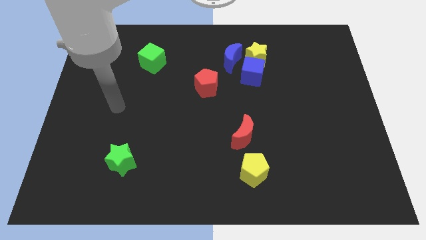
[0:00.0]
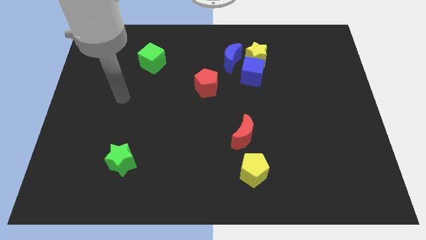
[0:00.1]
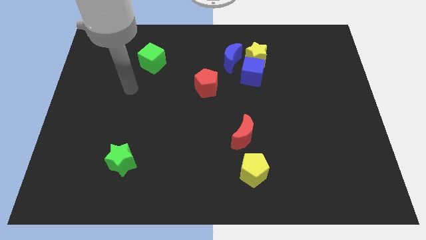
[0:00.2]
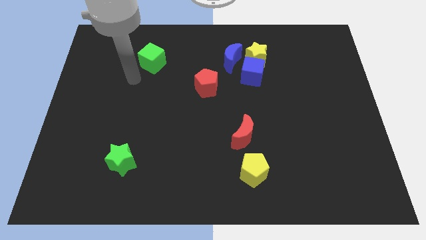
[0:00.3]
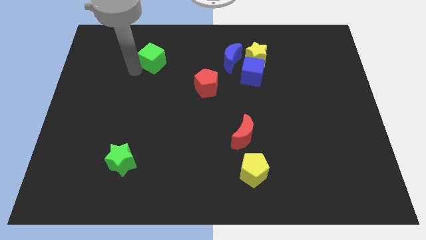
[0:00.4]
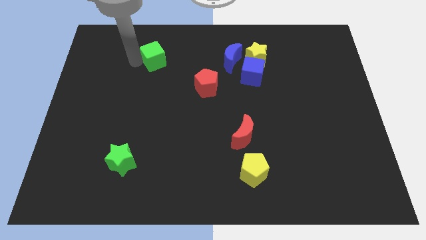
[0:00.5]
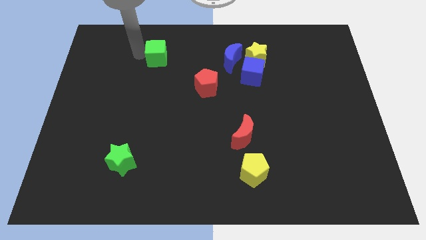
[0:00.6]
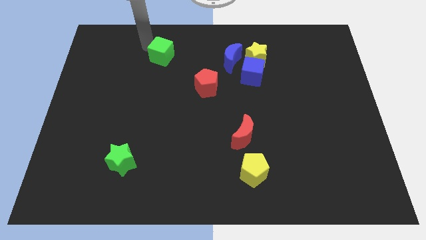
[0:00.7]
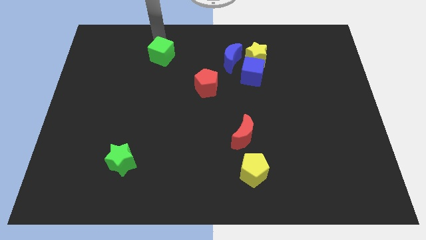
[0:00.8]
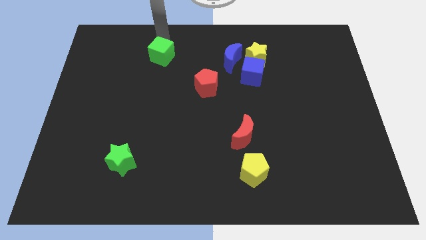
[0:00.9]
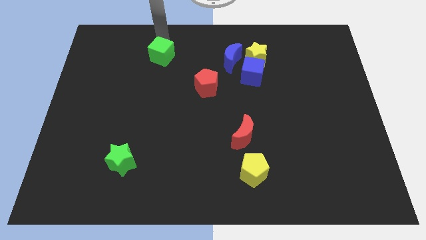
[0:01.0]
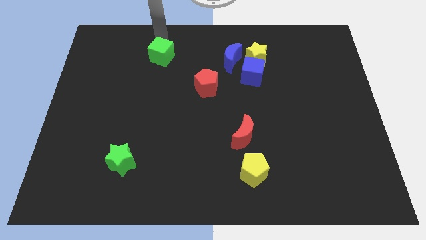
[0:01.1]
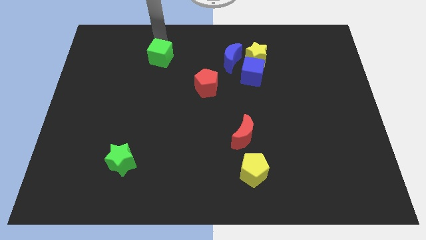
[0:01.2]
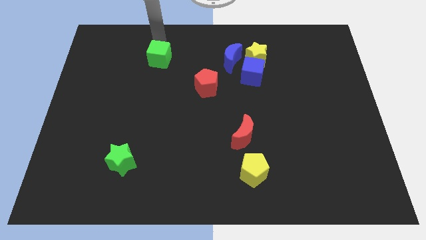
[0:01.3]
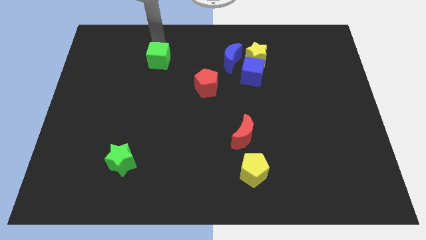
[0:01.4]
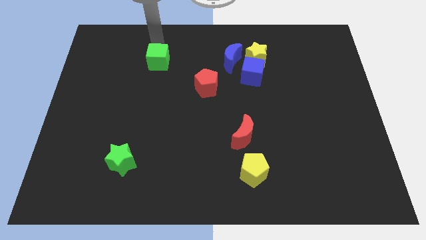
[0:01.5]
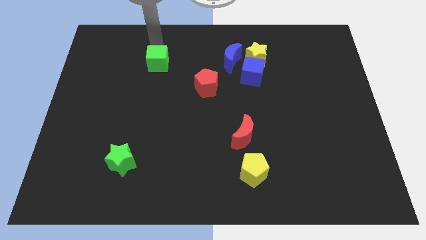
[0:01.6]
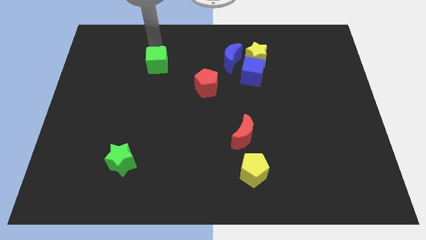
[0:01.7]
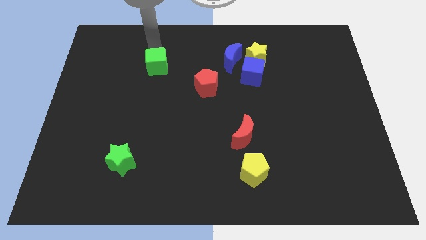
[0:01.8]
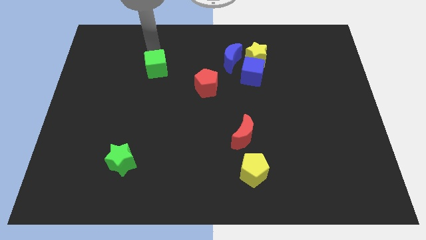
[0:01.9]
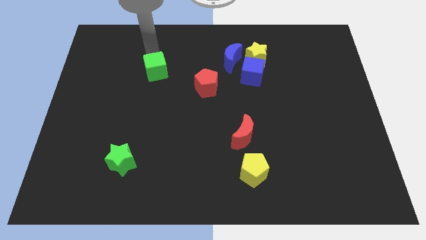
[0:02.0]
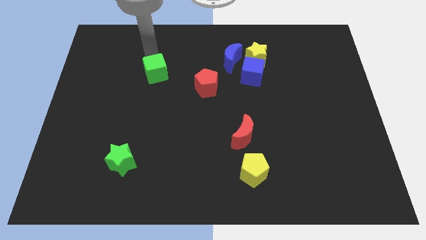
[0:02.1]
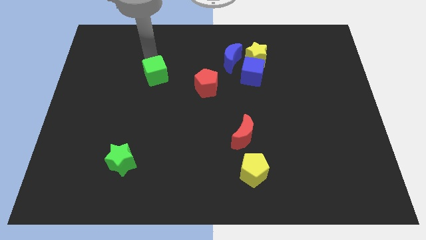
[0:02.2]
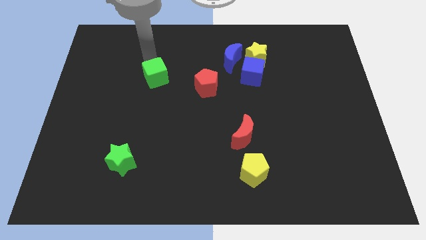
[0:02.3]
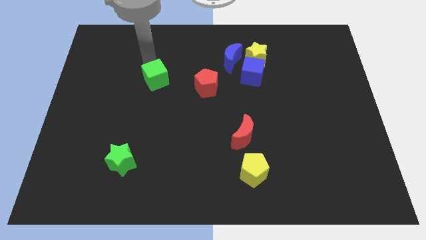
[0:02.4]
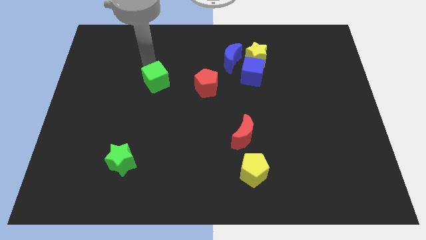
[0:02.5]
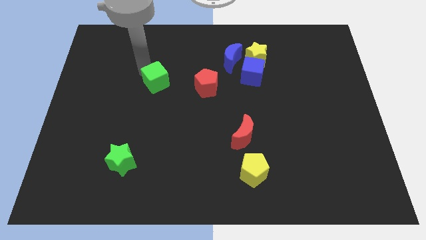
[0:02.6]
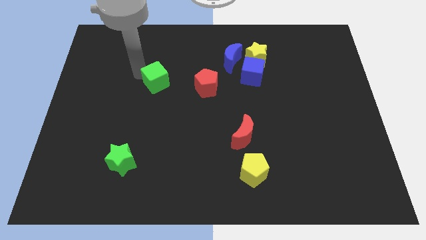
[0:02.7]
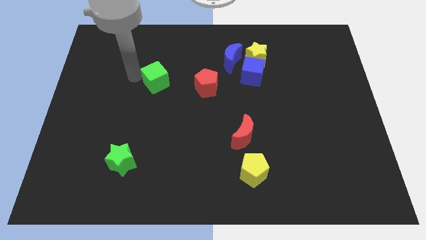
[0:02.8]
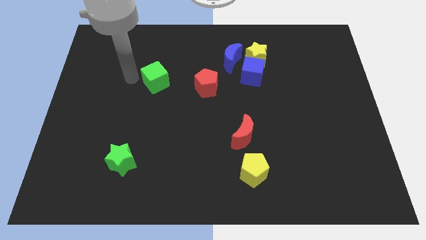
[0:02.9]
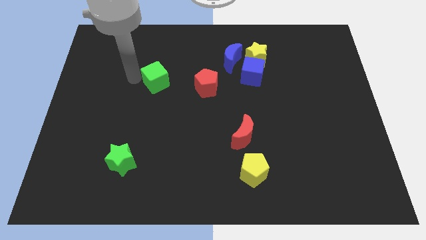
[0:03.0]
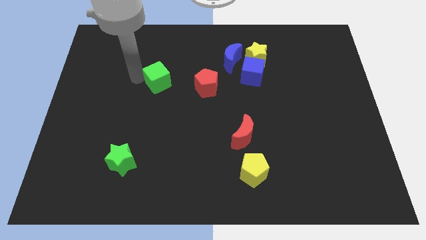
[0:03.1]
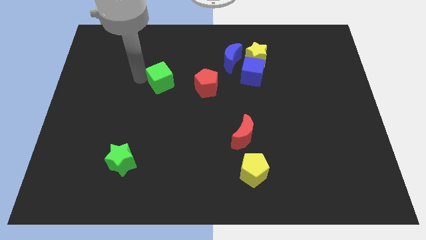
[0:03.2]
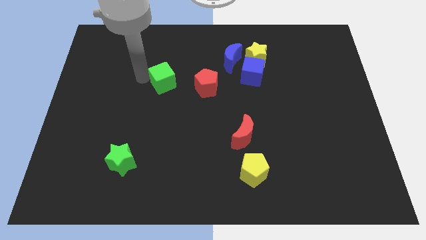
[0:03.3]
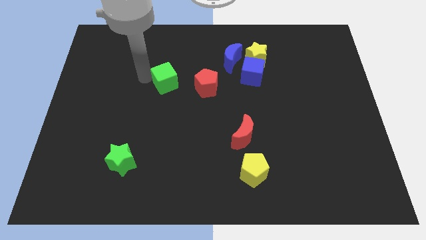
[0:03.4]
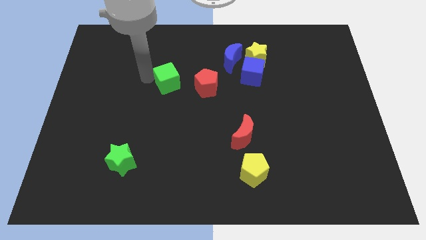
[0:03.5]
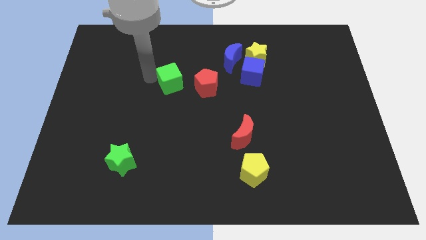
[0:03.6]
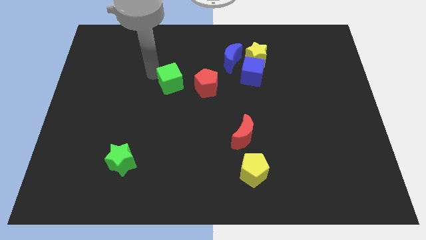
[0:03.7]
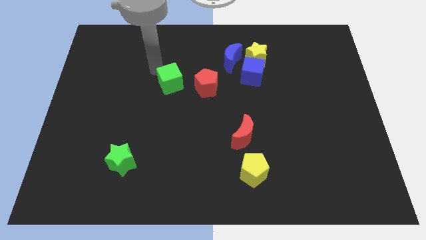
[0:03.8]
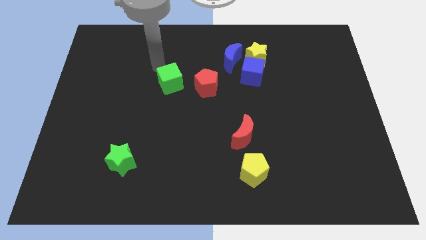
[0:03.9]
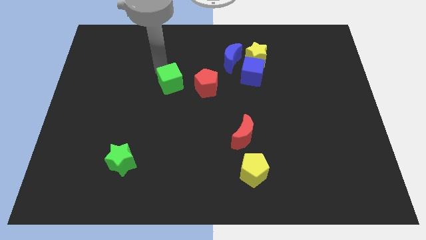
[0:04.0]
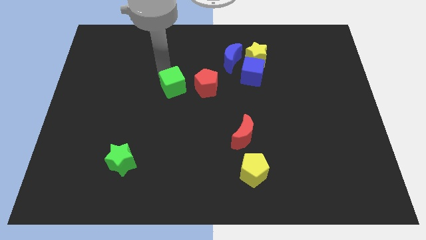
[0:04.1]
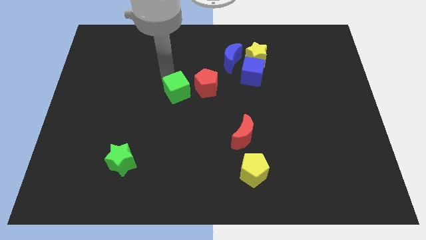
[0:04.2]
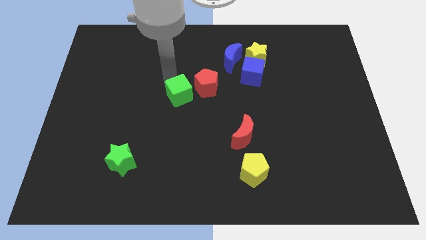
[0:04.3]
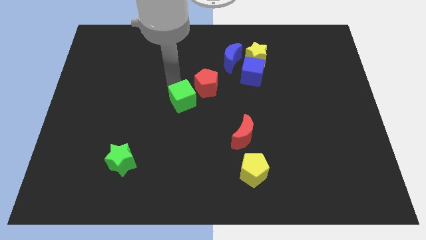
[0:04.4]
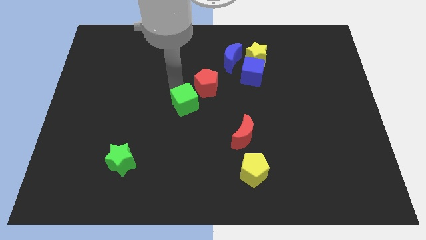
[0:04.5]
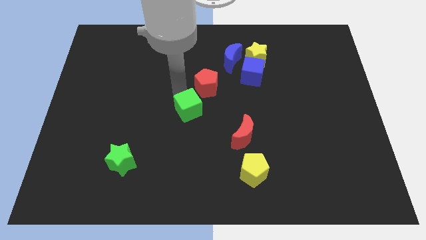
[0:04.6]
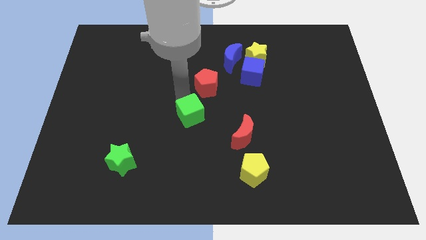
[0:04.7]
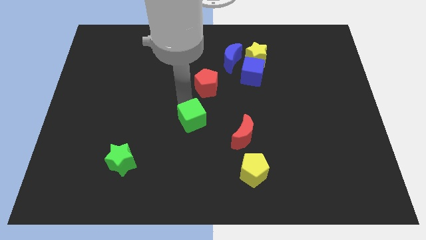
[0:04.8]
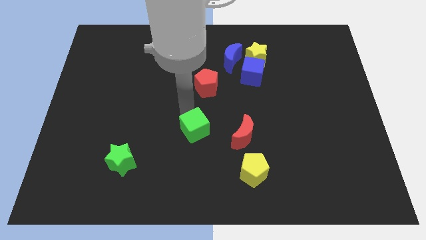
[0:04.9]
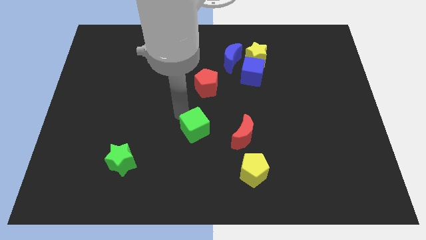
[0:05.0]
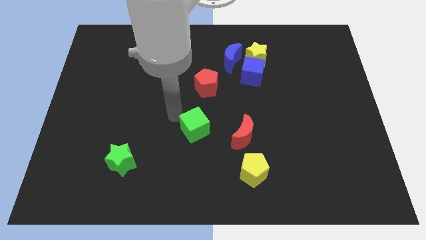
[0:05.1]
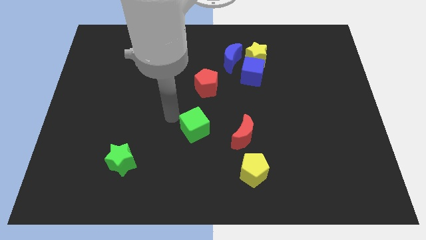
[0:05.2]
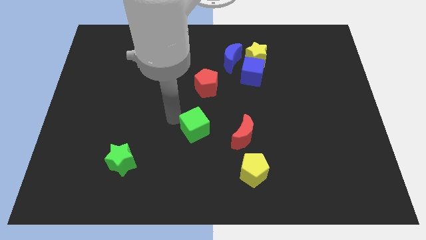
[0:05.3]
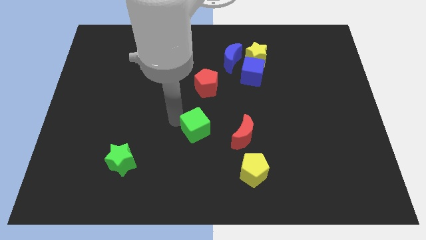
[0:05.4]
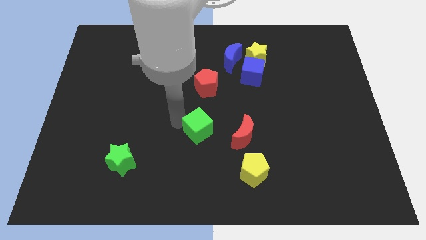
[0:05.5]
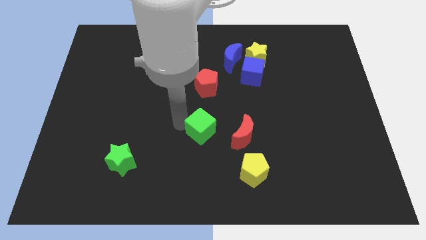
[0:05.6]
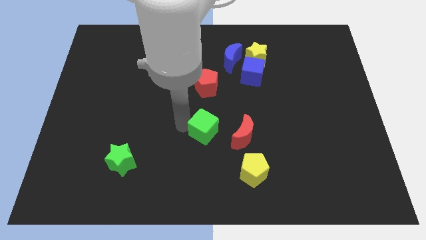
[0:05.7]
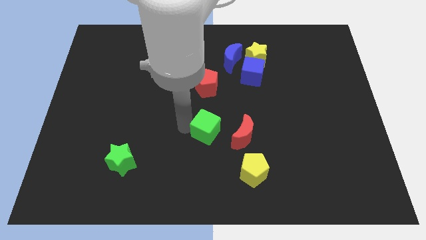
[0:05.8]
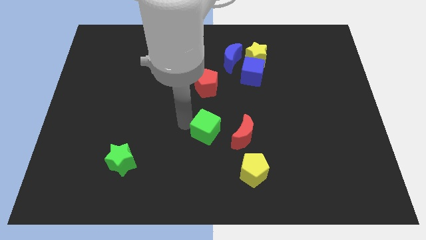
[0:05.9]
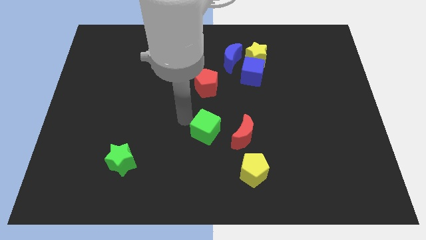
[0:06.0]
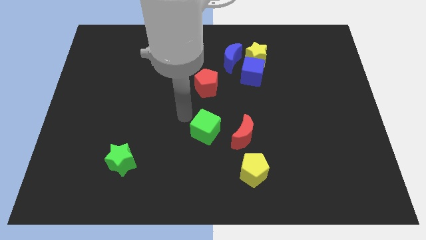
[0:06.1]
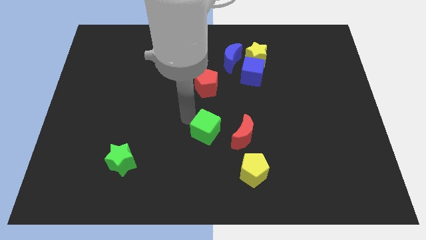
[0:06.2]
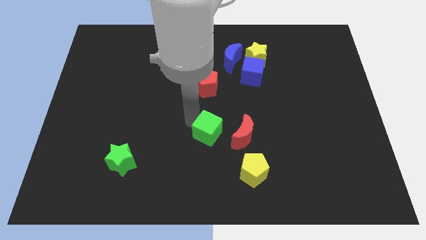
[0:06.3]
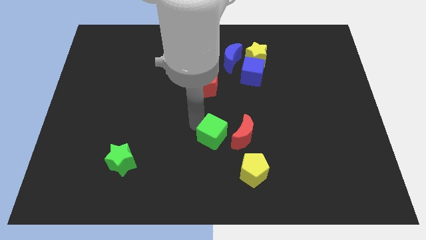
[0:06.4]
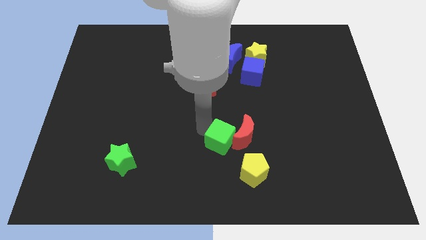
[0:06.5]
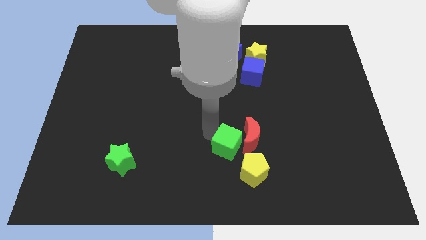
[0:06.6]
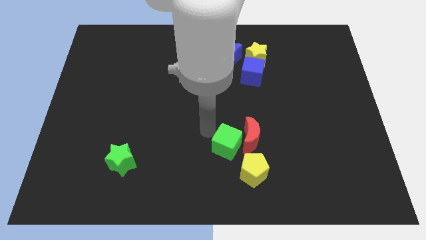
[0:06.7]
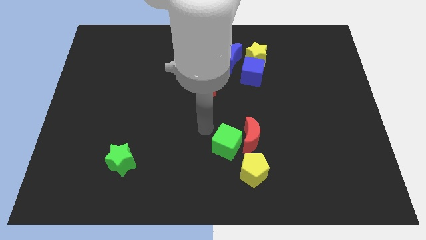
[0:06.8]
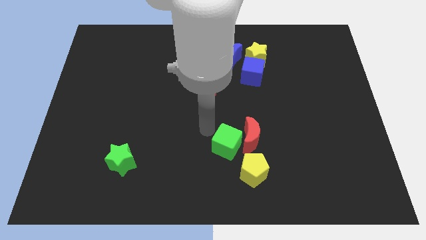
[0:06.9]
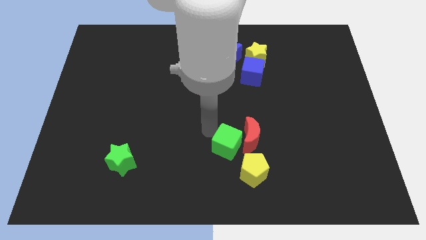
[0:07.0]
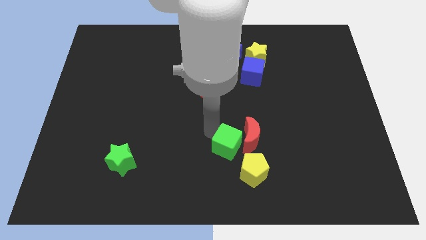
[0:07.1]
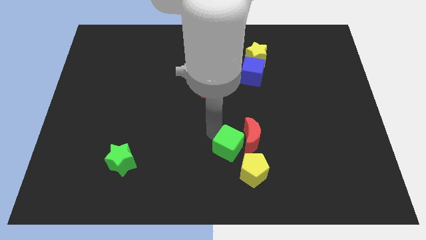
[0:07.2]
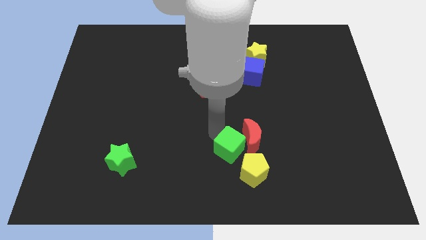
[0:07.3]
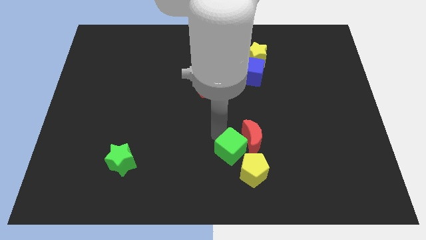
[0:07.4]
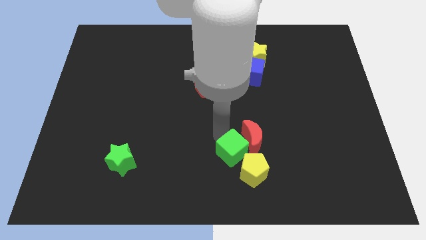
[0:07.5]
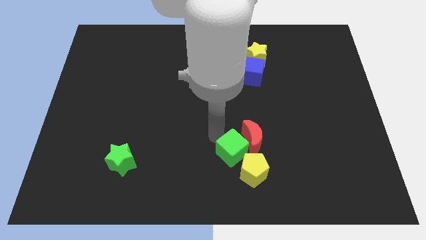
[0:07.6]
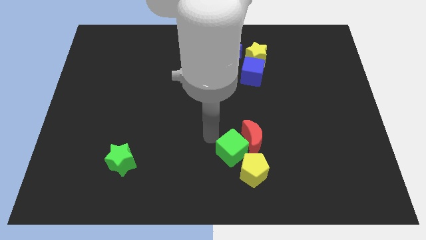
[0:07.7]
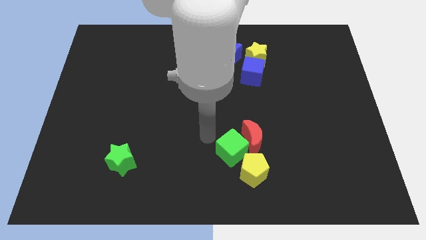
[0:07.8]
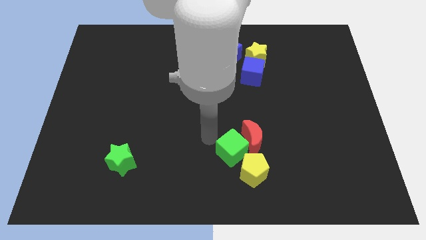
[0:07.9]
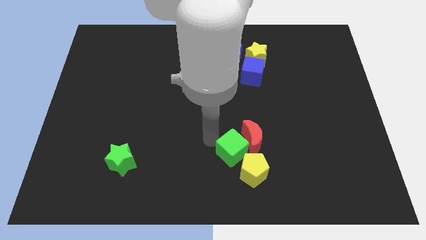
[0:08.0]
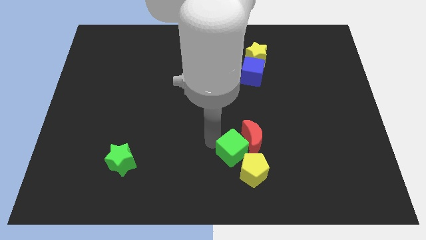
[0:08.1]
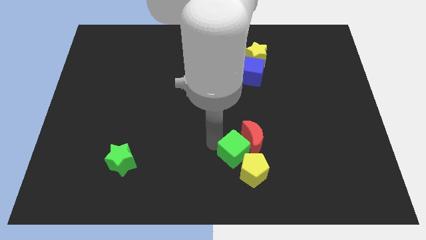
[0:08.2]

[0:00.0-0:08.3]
slide the green cube close to the yellow pentagon
